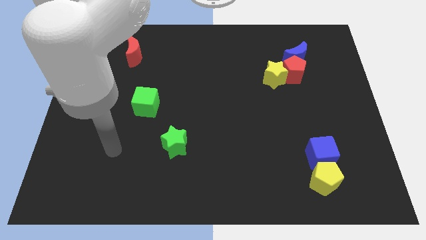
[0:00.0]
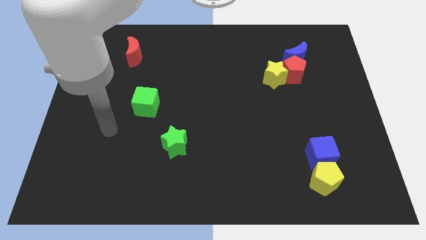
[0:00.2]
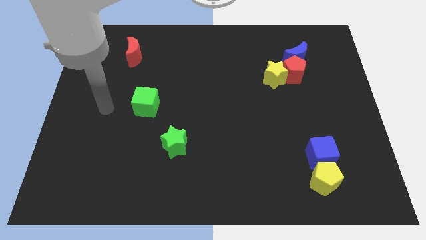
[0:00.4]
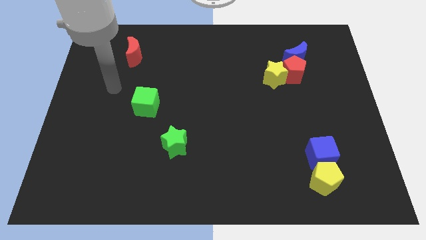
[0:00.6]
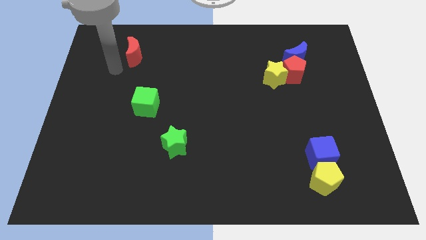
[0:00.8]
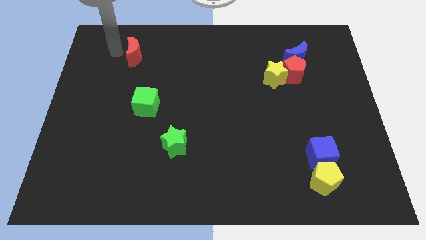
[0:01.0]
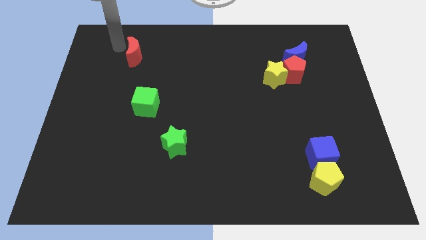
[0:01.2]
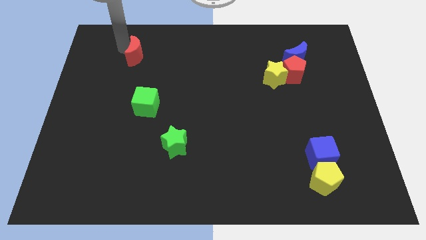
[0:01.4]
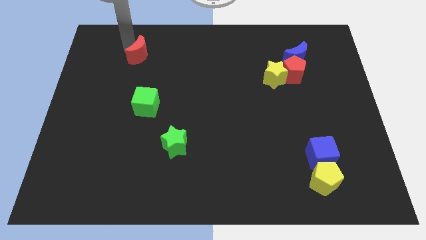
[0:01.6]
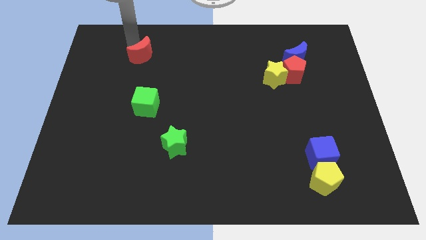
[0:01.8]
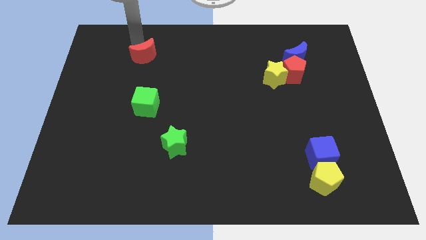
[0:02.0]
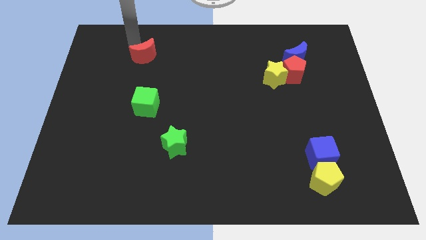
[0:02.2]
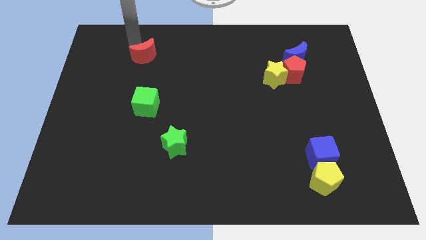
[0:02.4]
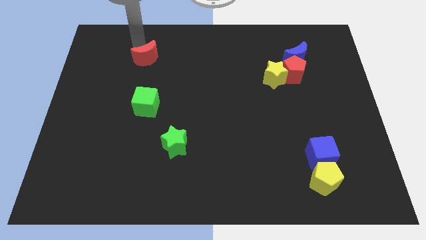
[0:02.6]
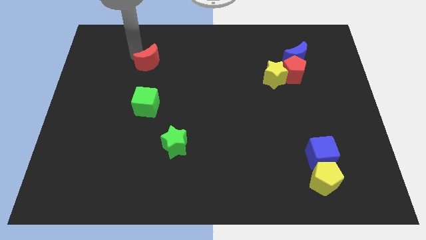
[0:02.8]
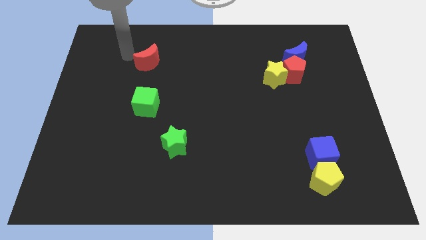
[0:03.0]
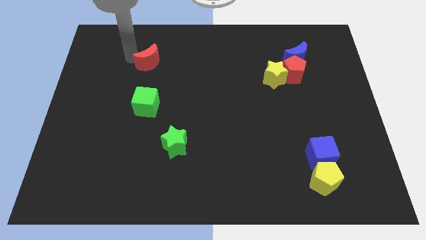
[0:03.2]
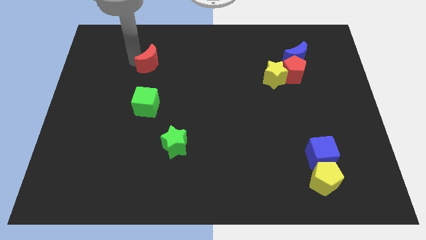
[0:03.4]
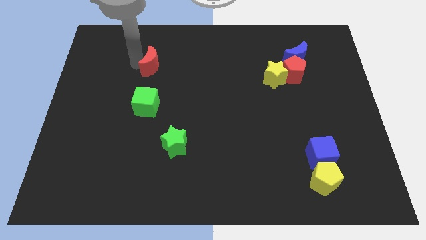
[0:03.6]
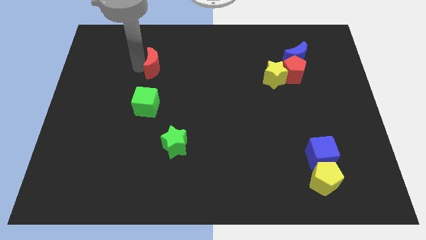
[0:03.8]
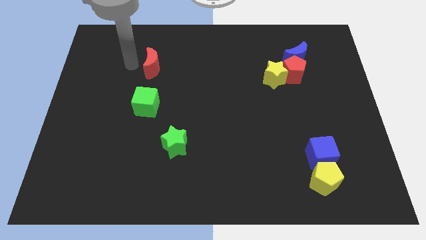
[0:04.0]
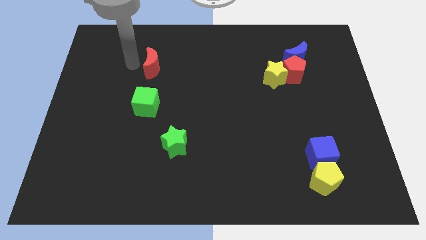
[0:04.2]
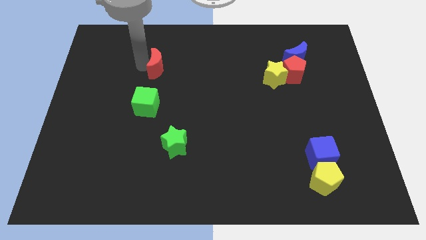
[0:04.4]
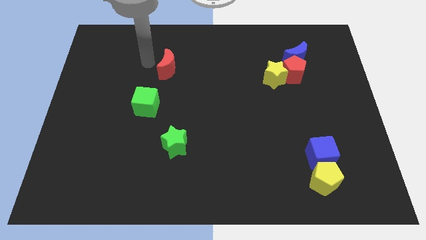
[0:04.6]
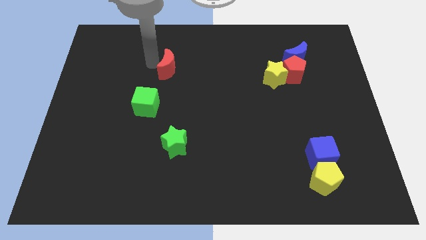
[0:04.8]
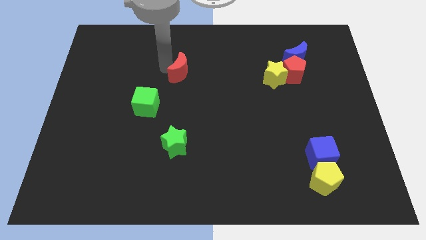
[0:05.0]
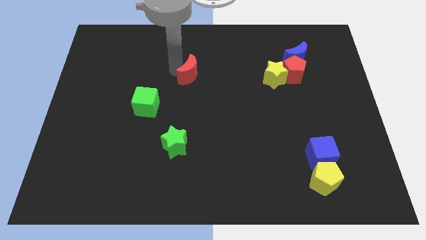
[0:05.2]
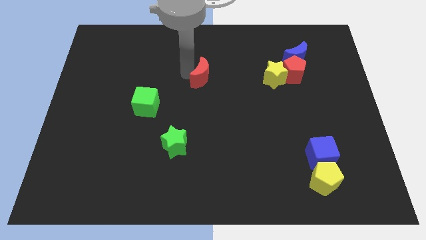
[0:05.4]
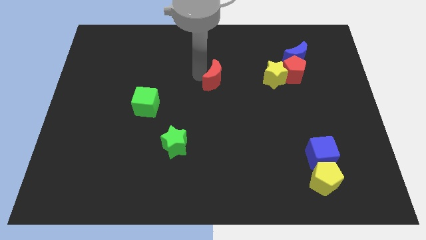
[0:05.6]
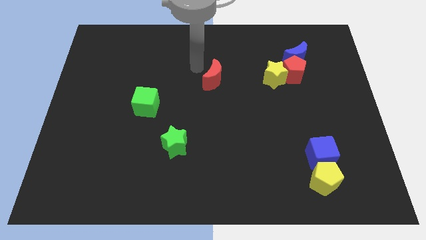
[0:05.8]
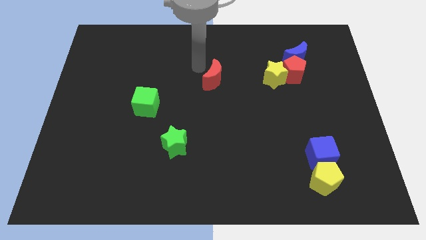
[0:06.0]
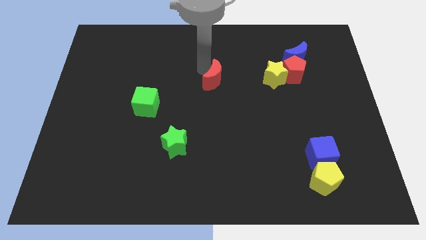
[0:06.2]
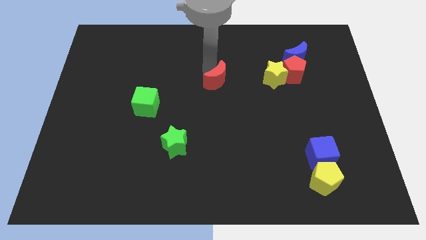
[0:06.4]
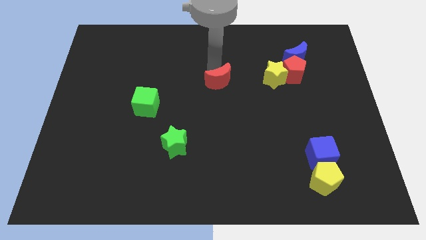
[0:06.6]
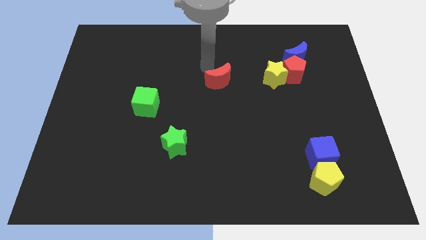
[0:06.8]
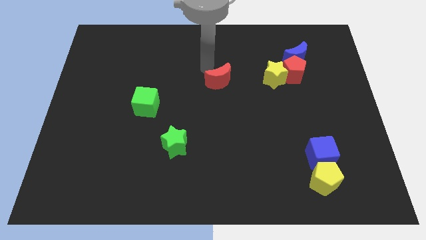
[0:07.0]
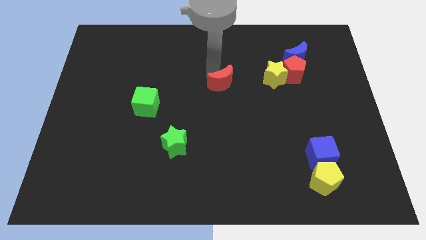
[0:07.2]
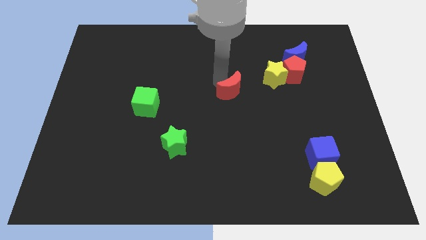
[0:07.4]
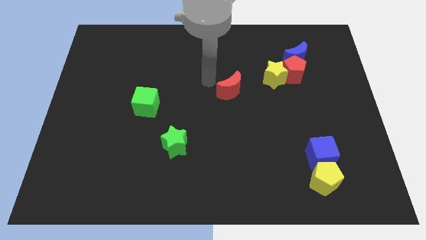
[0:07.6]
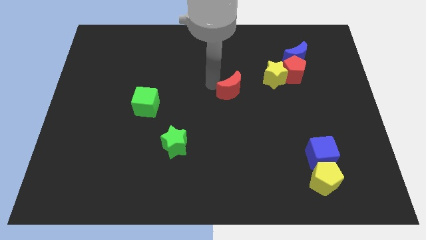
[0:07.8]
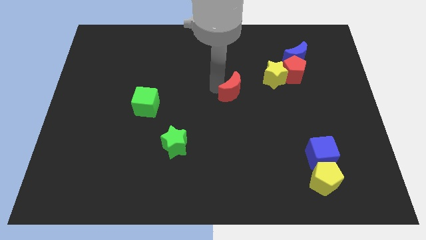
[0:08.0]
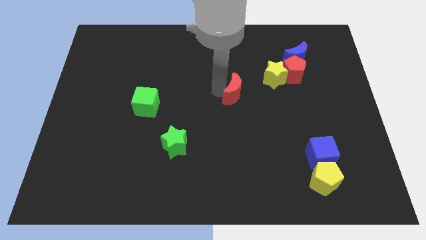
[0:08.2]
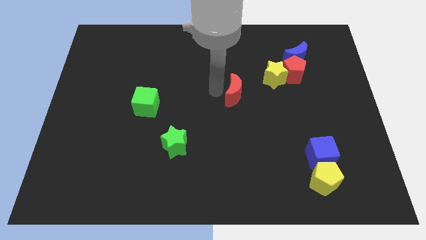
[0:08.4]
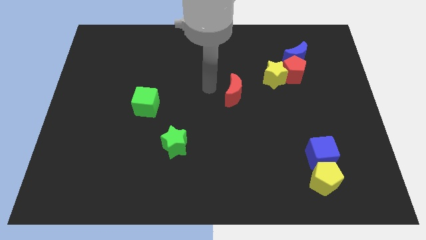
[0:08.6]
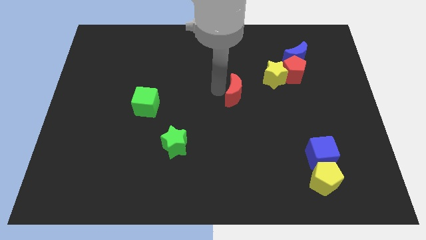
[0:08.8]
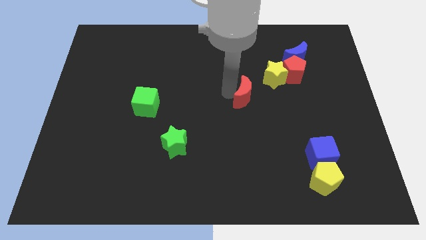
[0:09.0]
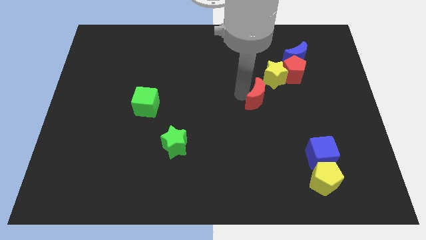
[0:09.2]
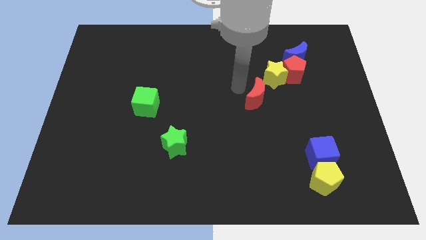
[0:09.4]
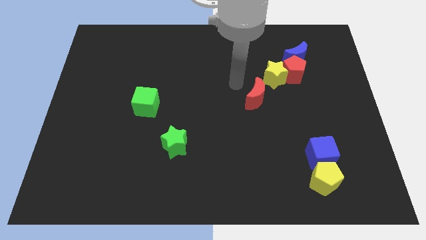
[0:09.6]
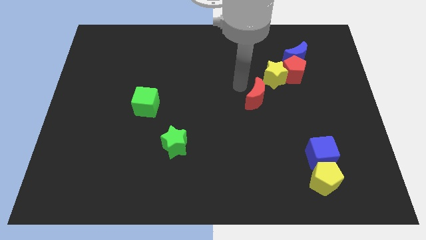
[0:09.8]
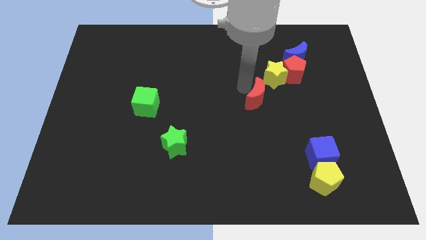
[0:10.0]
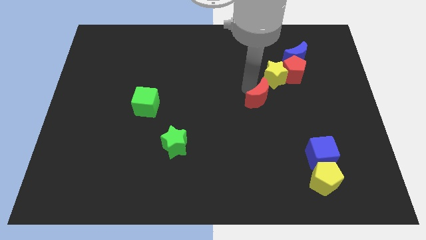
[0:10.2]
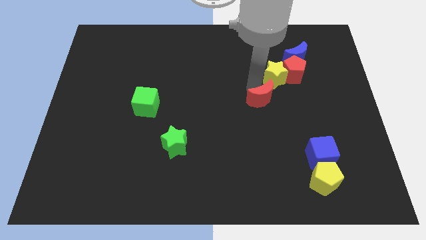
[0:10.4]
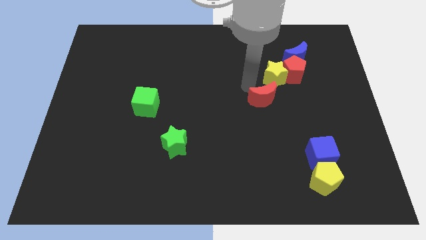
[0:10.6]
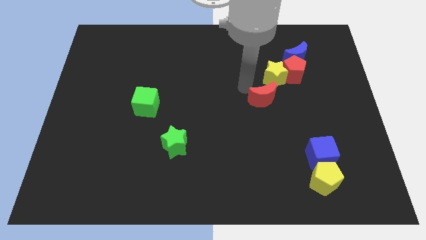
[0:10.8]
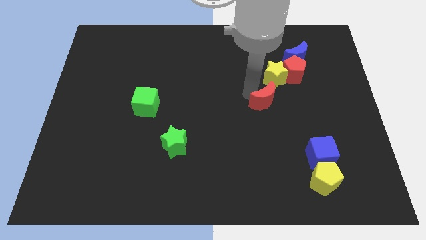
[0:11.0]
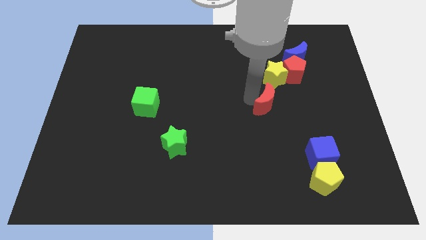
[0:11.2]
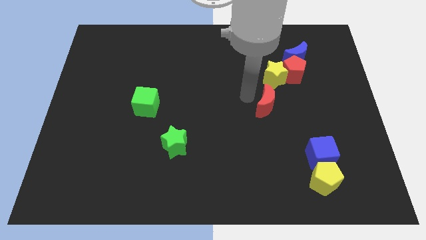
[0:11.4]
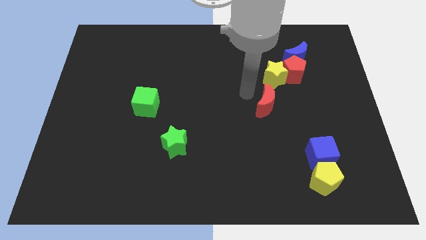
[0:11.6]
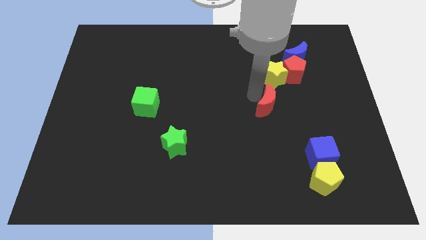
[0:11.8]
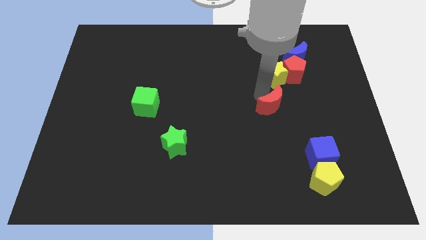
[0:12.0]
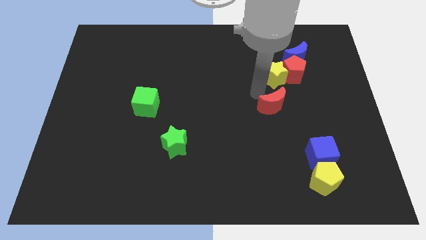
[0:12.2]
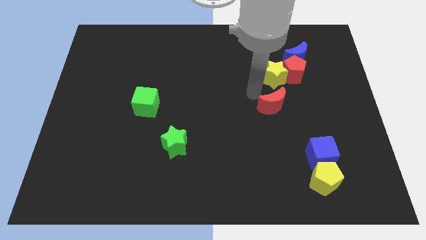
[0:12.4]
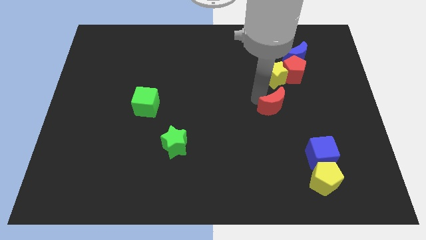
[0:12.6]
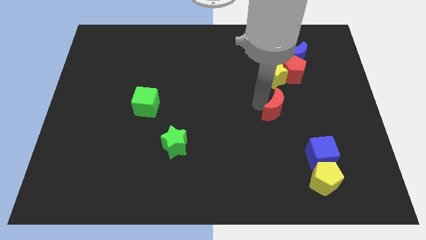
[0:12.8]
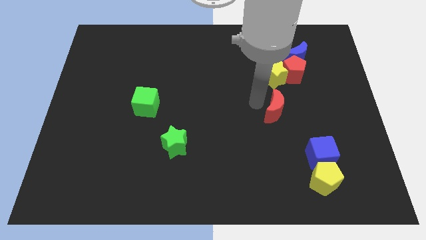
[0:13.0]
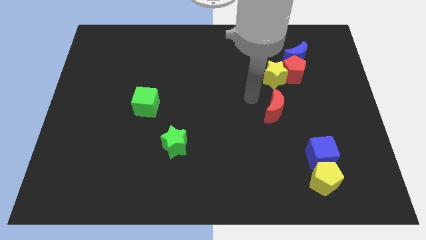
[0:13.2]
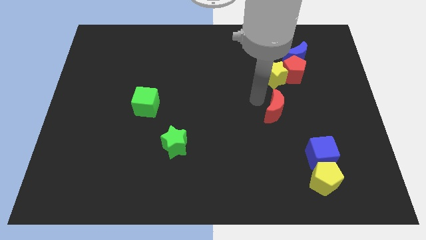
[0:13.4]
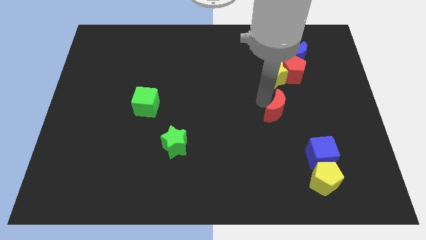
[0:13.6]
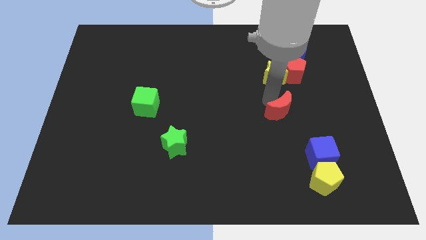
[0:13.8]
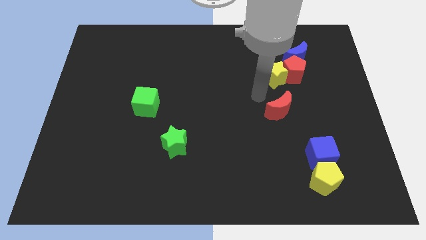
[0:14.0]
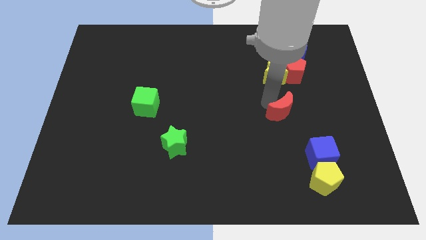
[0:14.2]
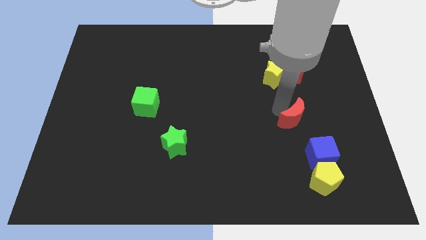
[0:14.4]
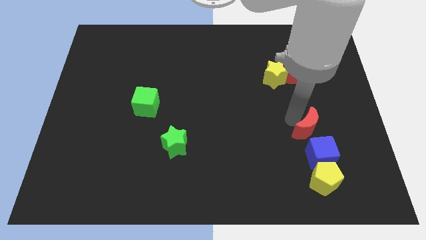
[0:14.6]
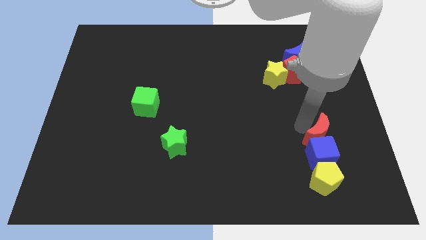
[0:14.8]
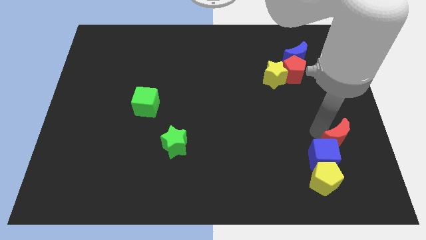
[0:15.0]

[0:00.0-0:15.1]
slide the red moon to the top right side of the yellow pentagon
